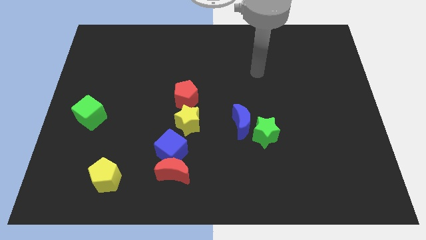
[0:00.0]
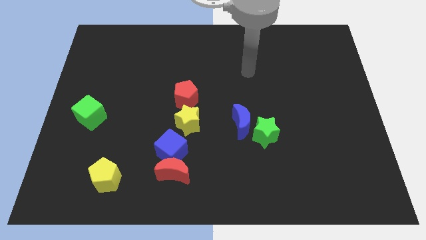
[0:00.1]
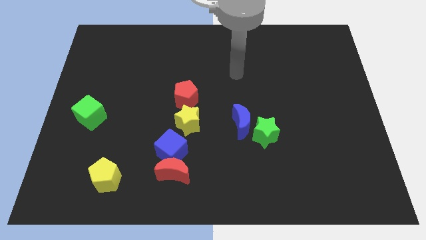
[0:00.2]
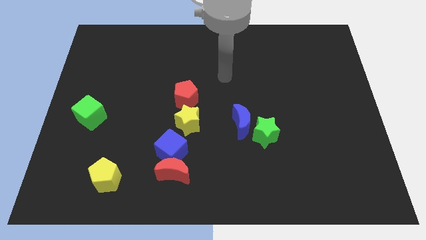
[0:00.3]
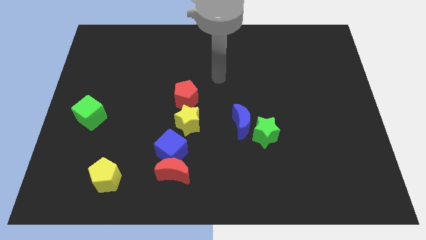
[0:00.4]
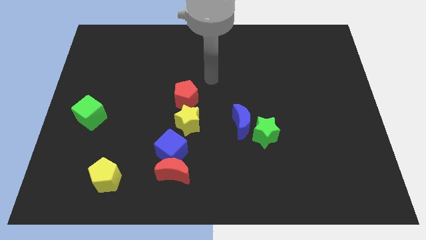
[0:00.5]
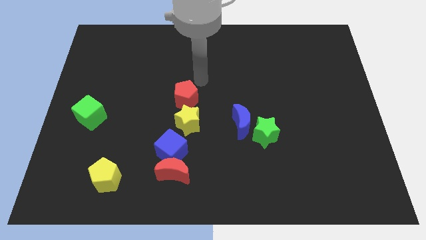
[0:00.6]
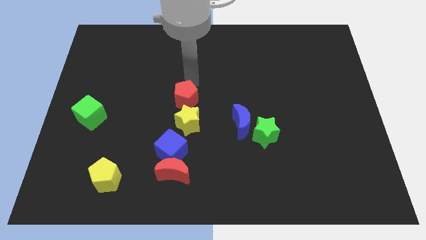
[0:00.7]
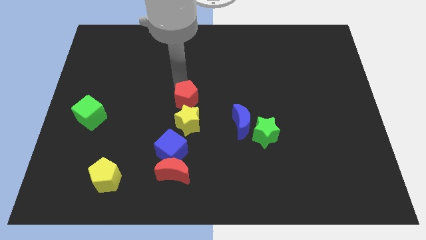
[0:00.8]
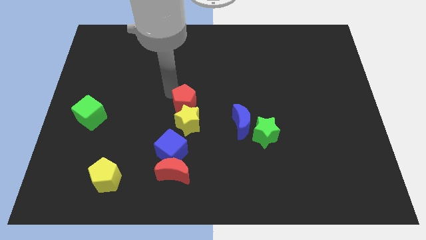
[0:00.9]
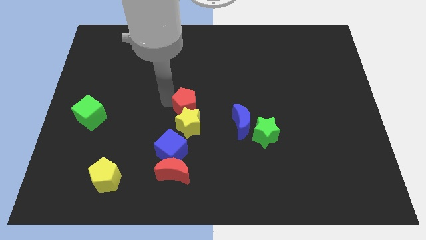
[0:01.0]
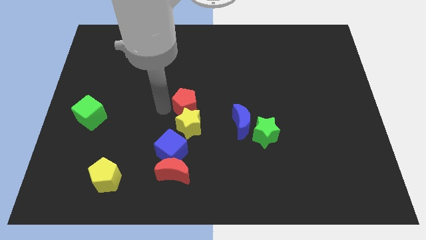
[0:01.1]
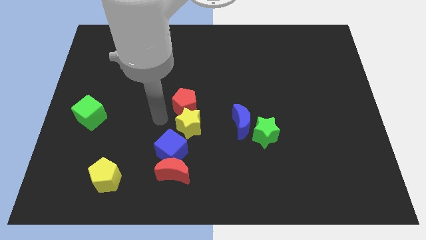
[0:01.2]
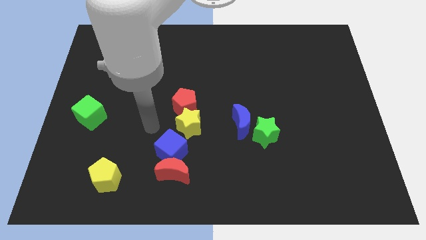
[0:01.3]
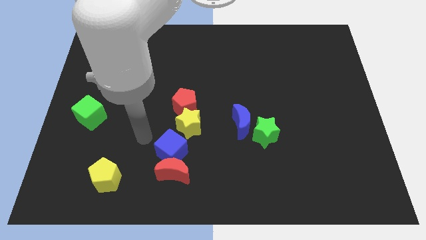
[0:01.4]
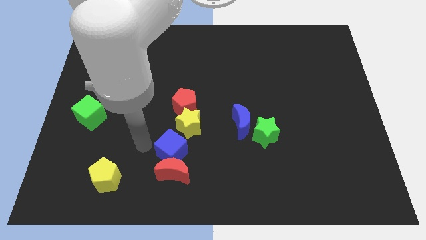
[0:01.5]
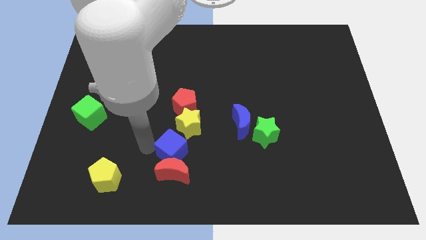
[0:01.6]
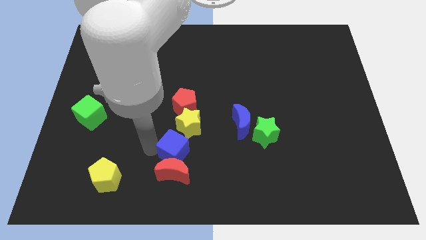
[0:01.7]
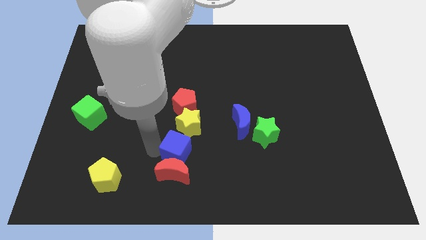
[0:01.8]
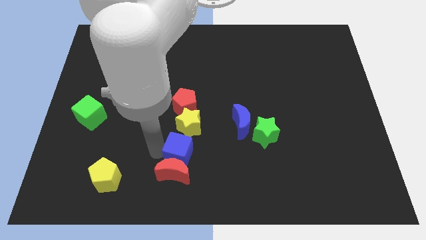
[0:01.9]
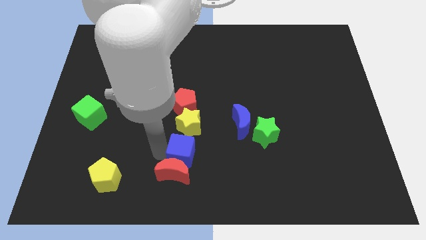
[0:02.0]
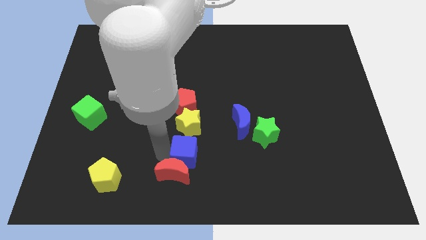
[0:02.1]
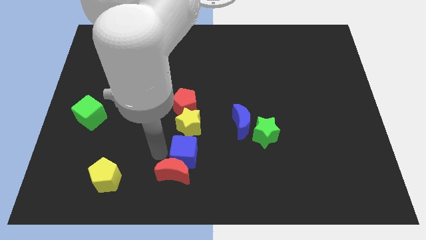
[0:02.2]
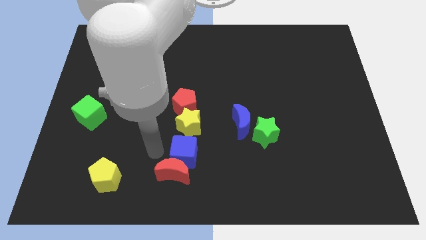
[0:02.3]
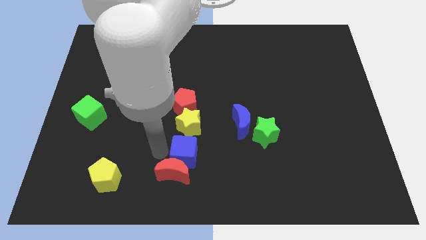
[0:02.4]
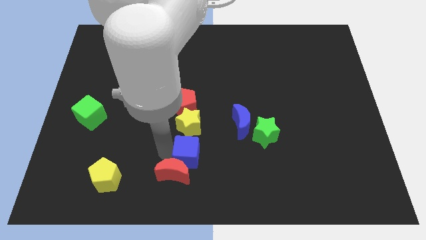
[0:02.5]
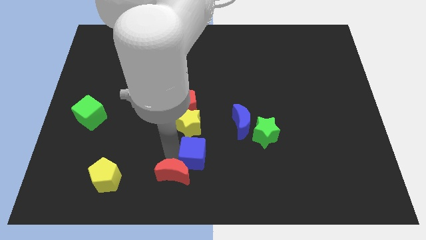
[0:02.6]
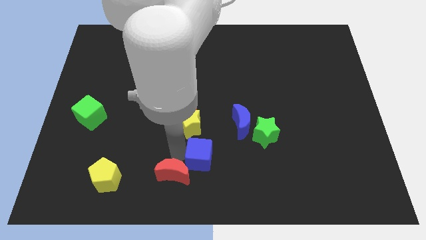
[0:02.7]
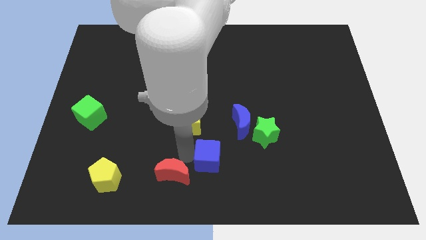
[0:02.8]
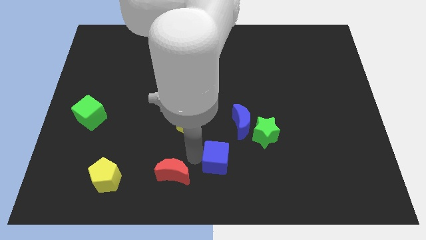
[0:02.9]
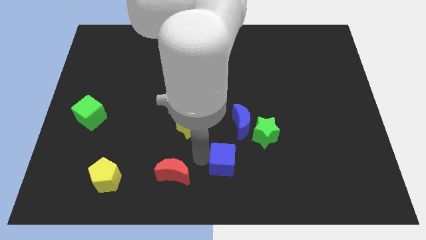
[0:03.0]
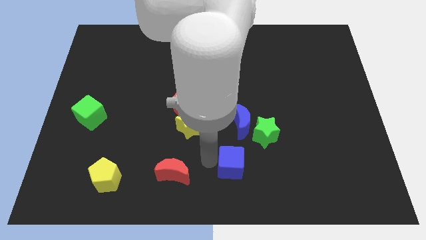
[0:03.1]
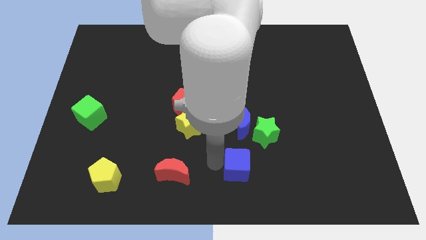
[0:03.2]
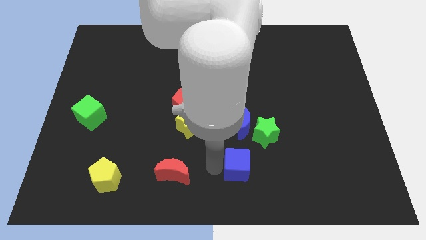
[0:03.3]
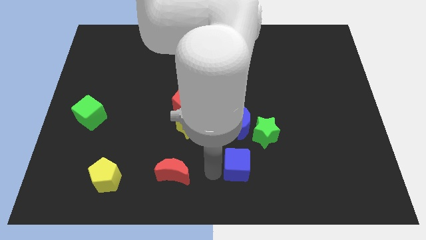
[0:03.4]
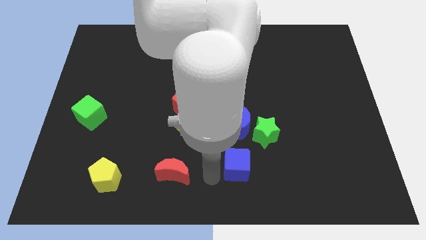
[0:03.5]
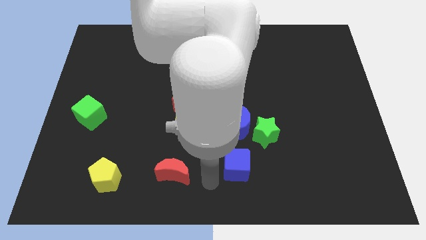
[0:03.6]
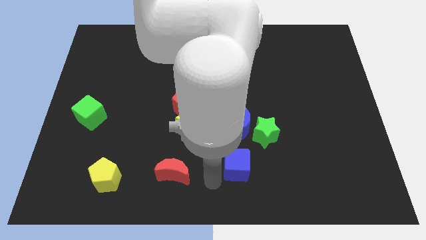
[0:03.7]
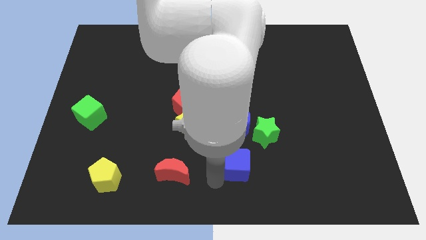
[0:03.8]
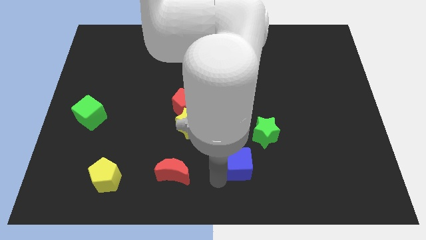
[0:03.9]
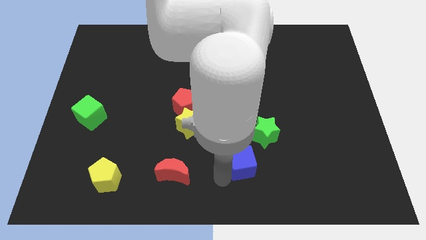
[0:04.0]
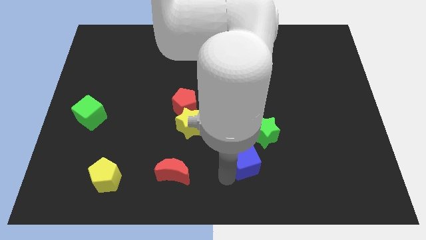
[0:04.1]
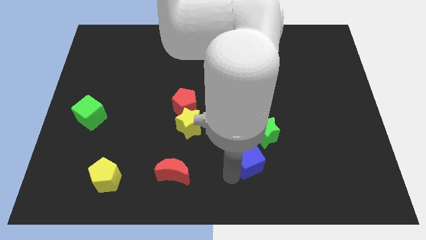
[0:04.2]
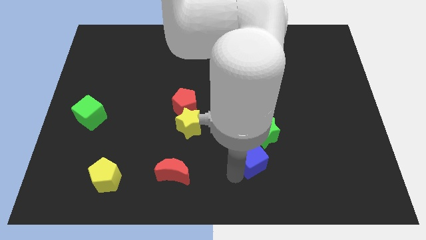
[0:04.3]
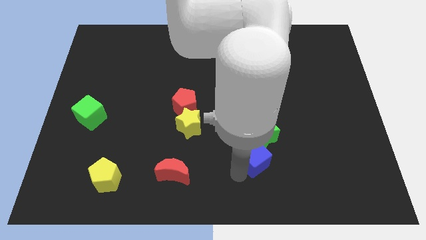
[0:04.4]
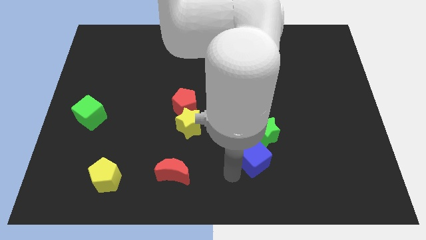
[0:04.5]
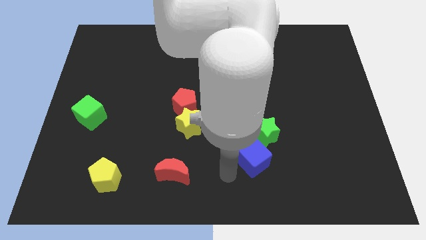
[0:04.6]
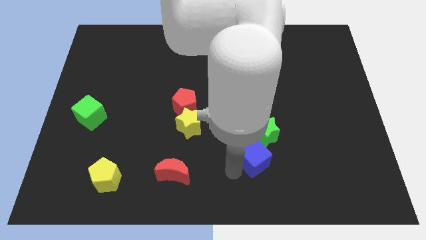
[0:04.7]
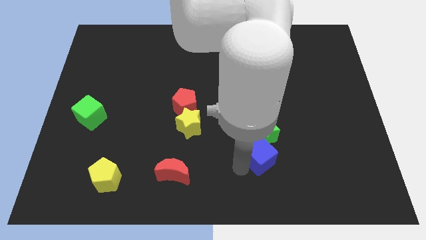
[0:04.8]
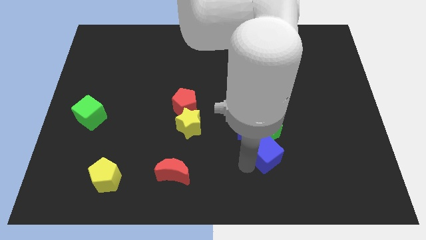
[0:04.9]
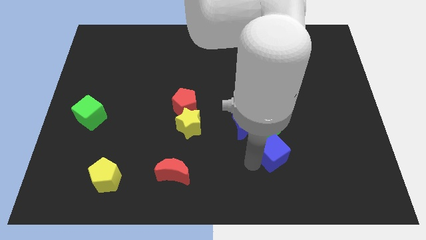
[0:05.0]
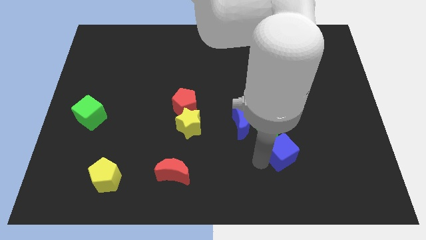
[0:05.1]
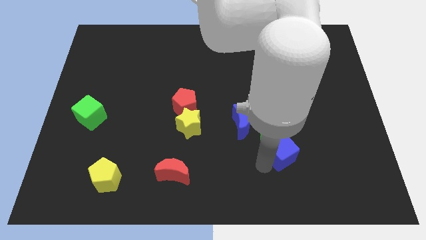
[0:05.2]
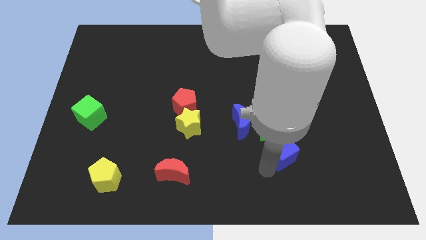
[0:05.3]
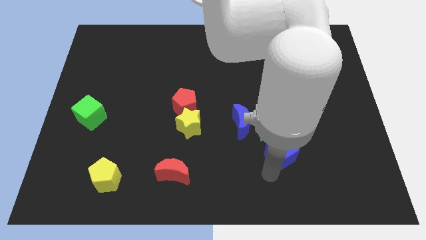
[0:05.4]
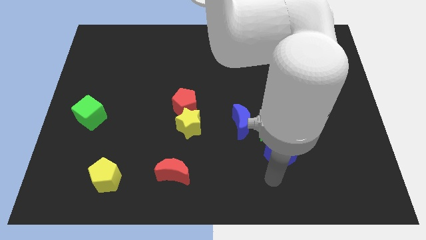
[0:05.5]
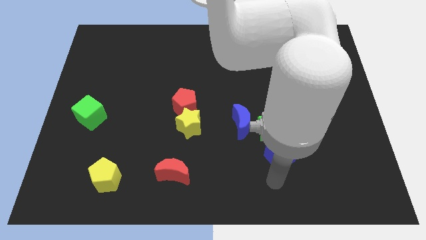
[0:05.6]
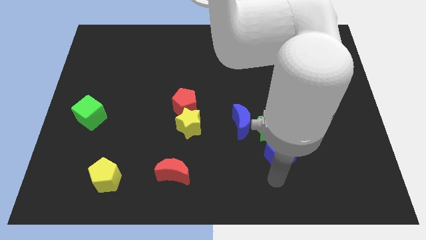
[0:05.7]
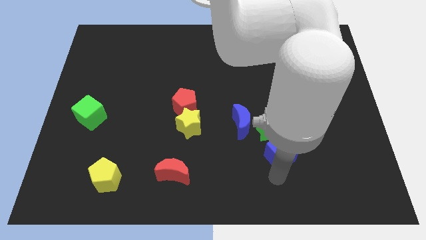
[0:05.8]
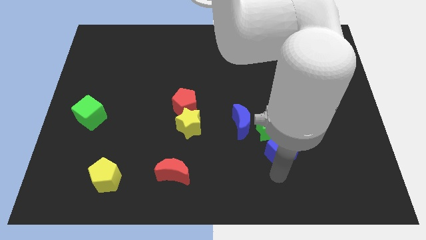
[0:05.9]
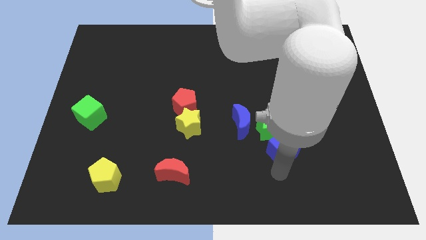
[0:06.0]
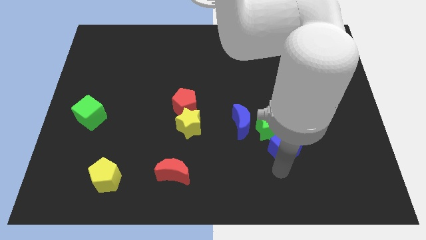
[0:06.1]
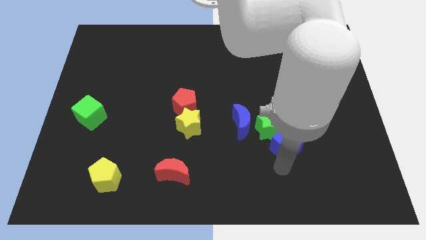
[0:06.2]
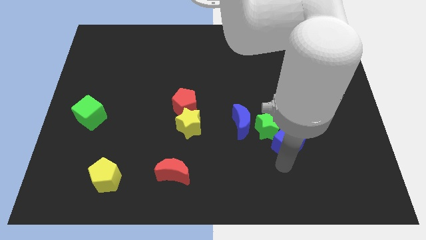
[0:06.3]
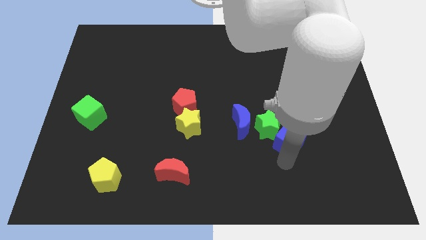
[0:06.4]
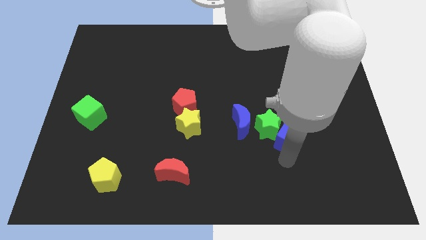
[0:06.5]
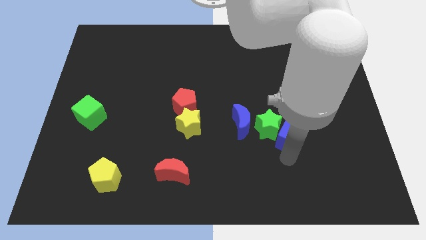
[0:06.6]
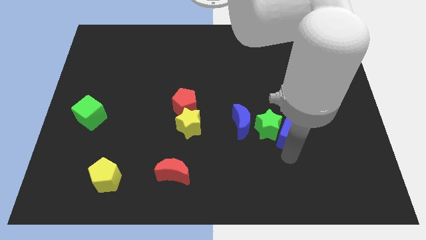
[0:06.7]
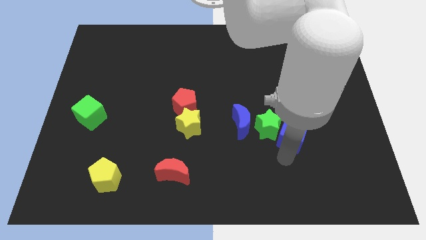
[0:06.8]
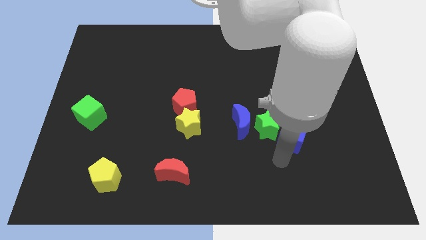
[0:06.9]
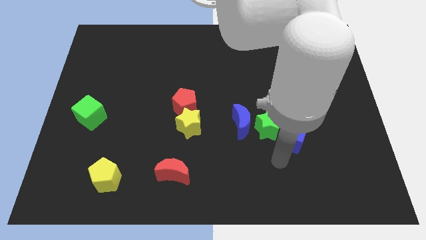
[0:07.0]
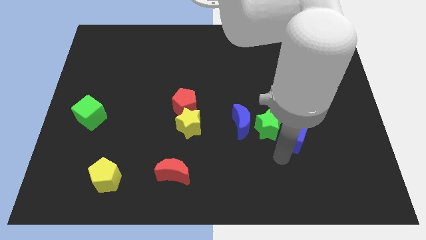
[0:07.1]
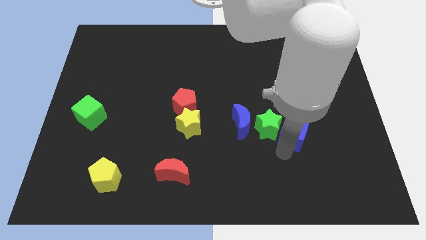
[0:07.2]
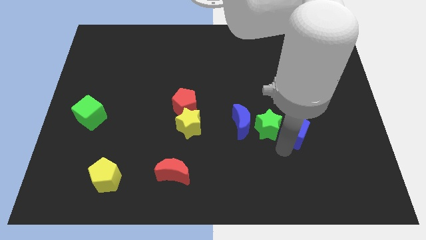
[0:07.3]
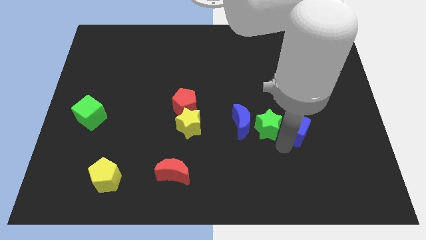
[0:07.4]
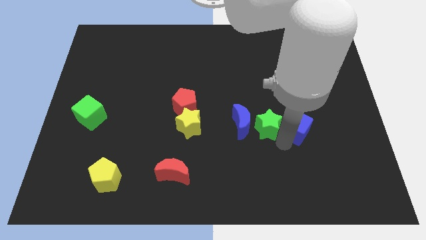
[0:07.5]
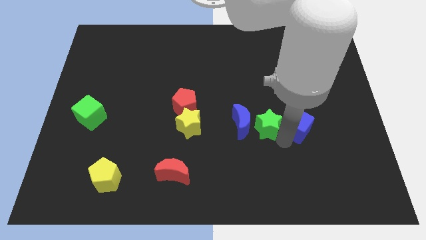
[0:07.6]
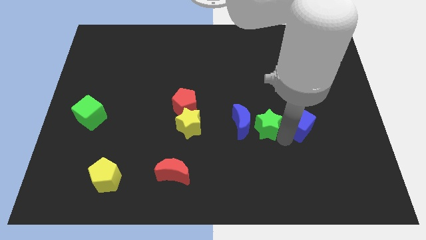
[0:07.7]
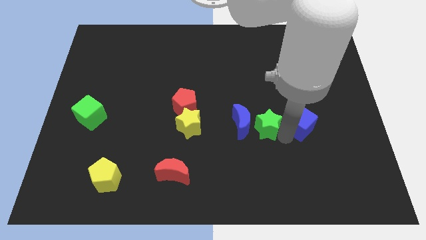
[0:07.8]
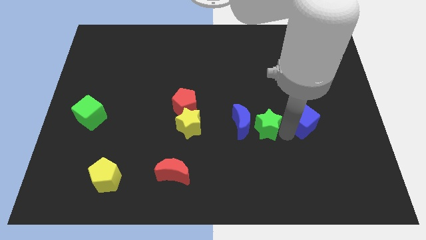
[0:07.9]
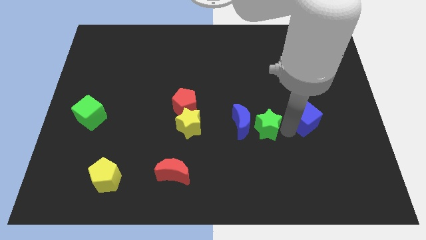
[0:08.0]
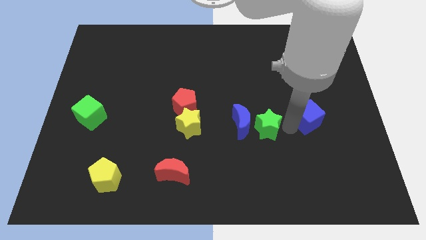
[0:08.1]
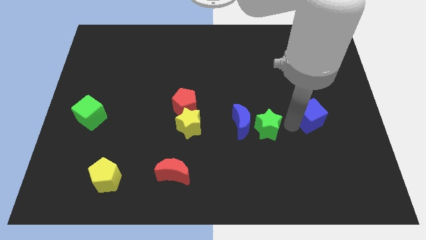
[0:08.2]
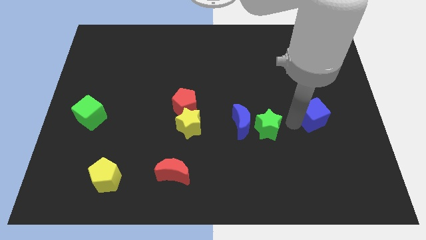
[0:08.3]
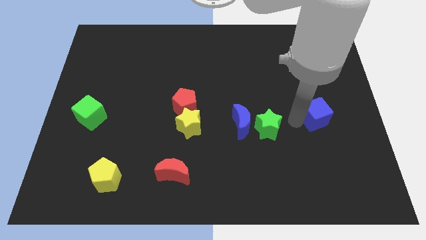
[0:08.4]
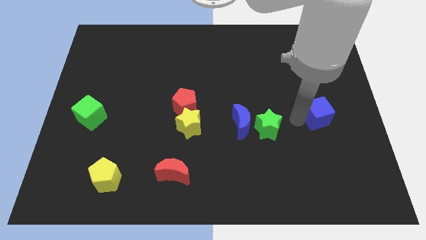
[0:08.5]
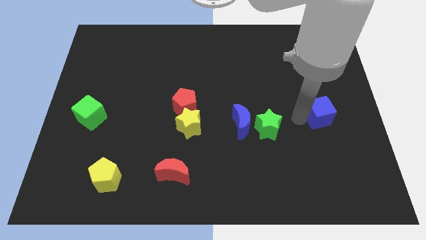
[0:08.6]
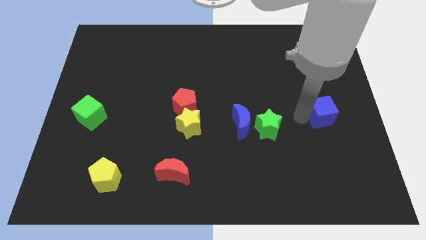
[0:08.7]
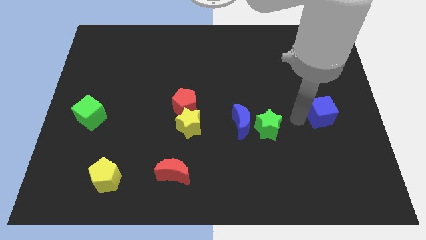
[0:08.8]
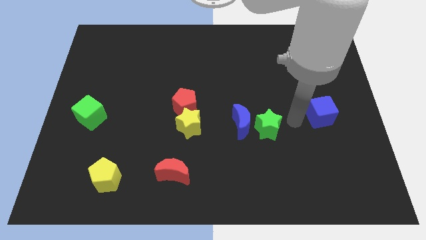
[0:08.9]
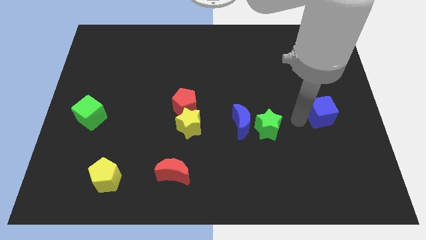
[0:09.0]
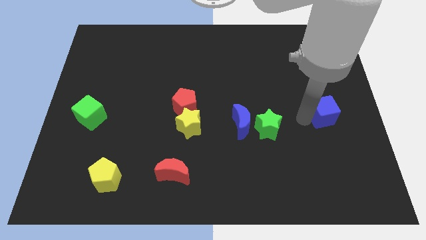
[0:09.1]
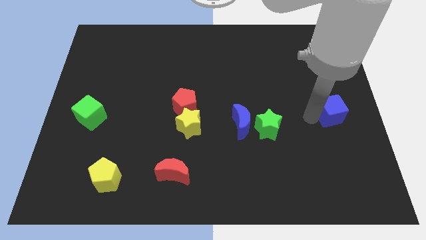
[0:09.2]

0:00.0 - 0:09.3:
move the blue cube to the right side of the board
